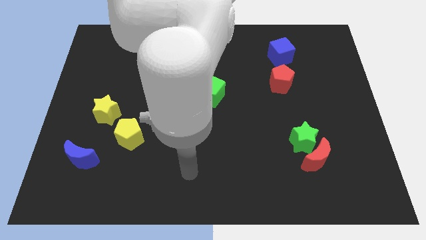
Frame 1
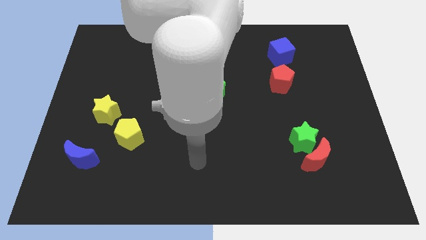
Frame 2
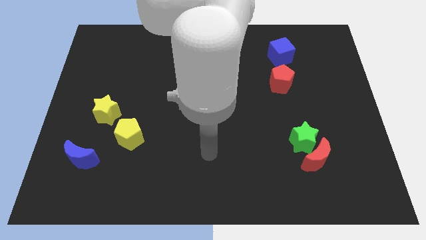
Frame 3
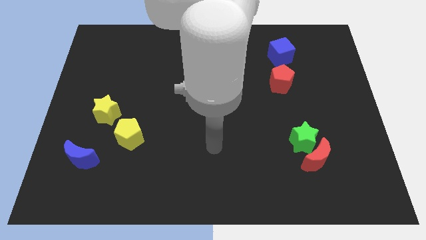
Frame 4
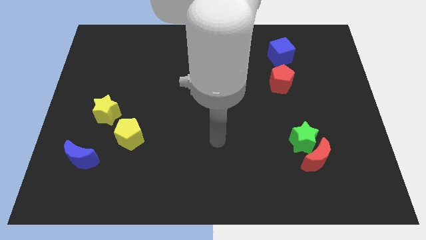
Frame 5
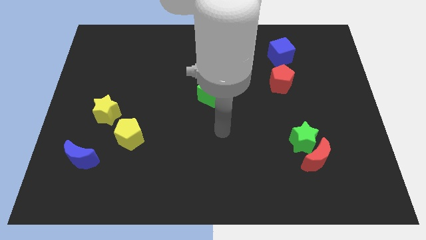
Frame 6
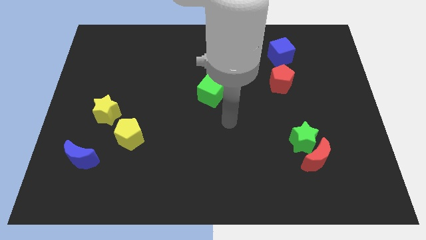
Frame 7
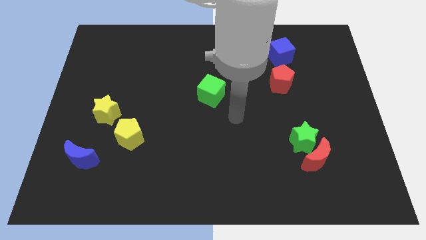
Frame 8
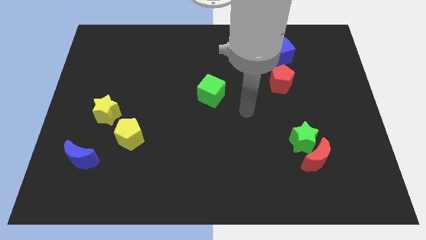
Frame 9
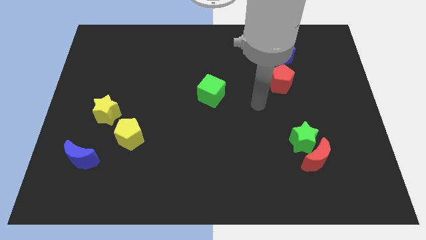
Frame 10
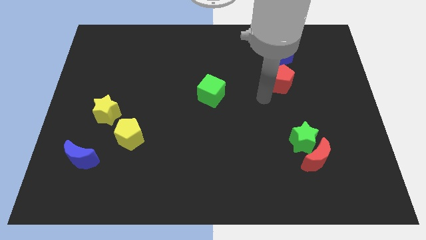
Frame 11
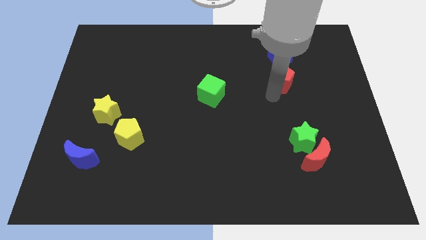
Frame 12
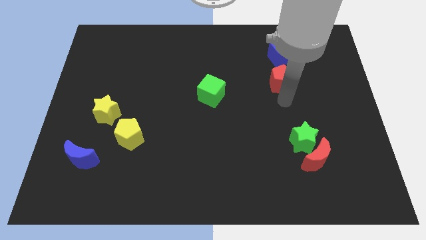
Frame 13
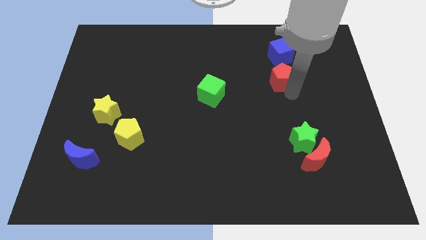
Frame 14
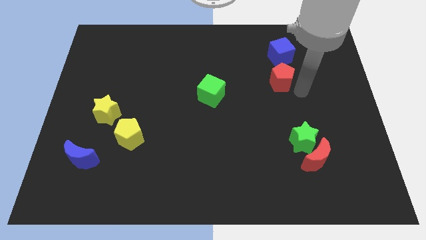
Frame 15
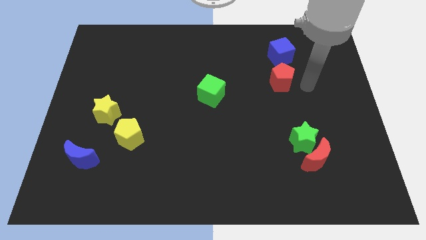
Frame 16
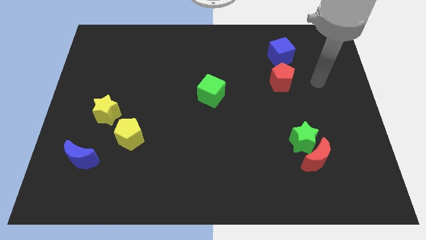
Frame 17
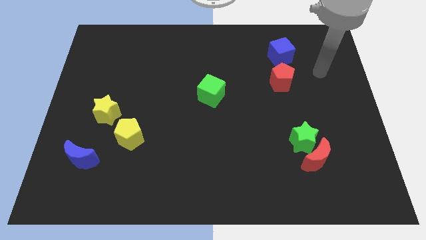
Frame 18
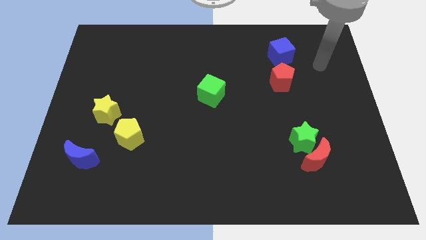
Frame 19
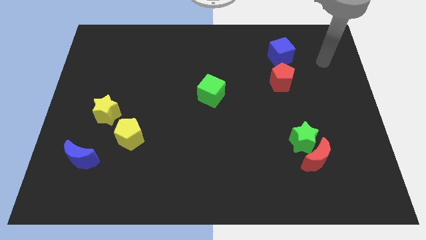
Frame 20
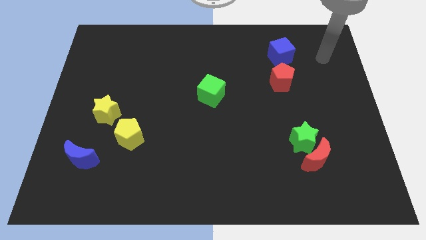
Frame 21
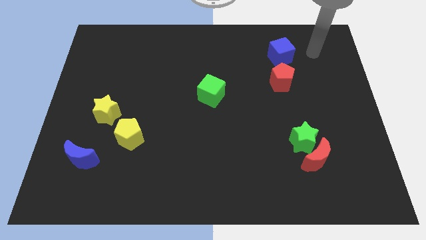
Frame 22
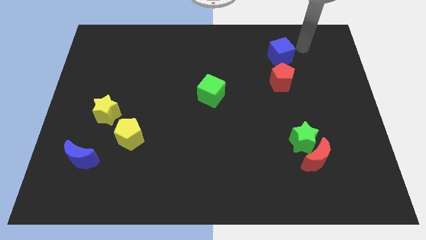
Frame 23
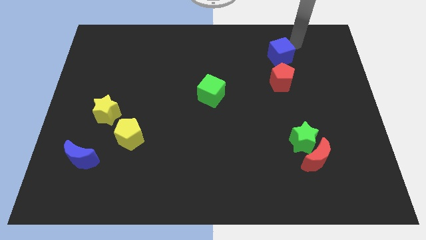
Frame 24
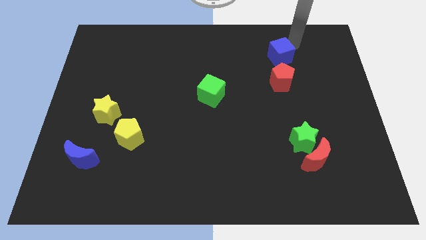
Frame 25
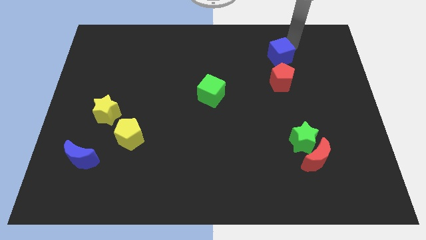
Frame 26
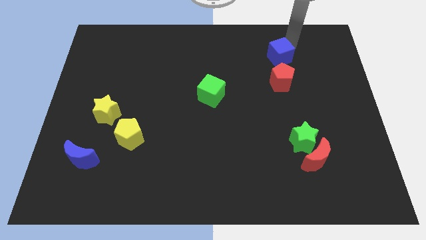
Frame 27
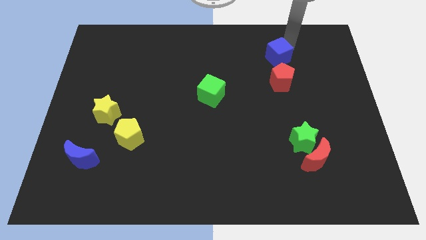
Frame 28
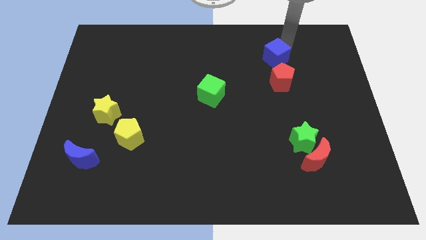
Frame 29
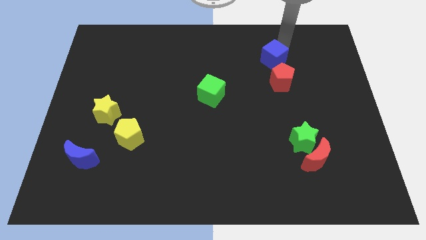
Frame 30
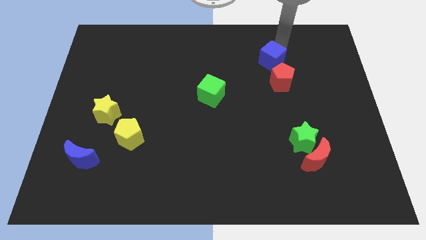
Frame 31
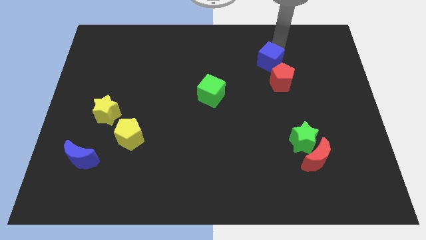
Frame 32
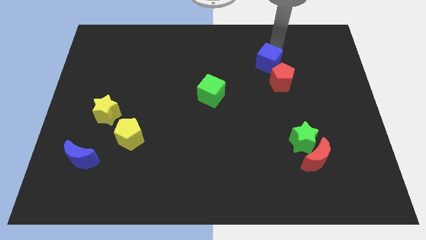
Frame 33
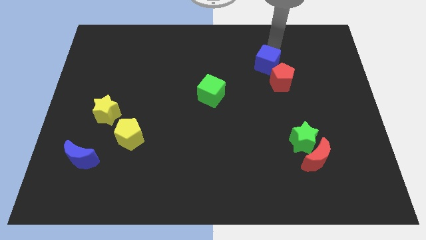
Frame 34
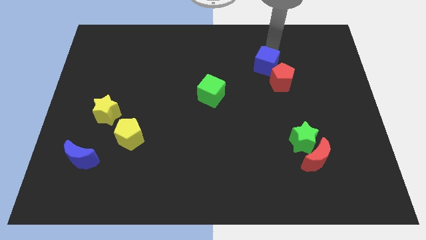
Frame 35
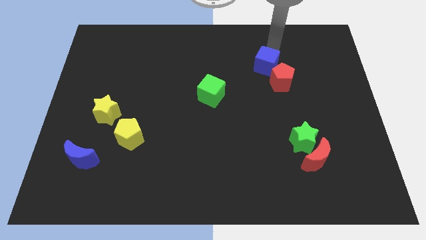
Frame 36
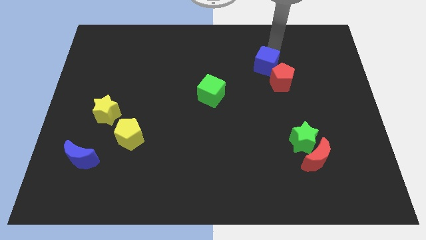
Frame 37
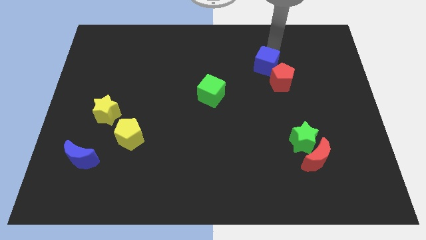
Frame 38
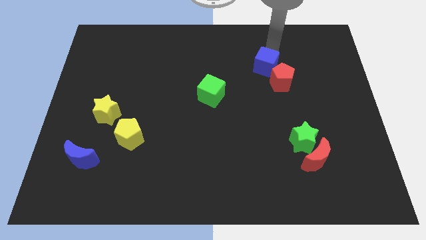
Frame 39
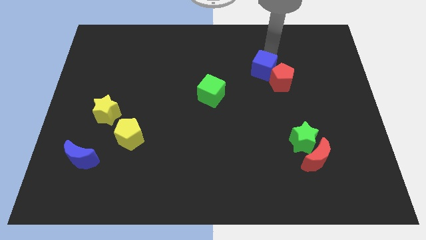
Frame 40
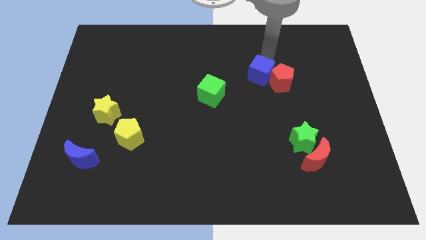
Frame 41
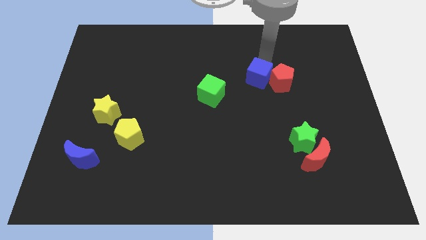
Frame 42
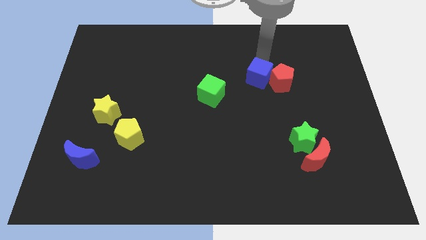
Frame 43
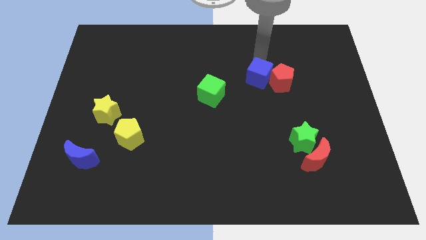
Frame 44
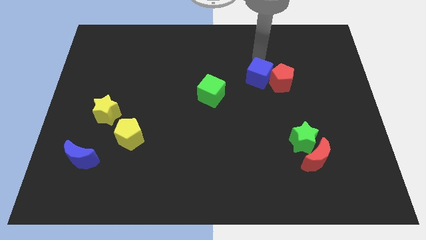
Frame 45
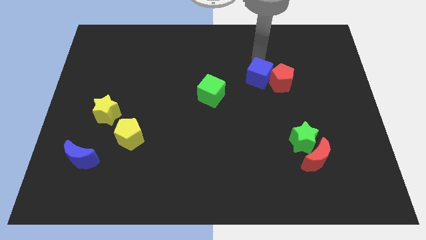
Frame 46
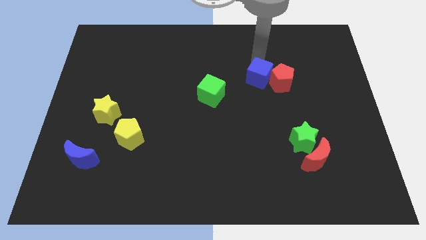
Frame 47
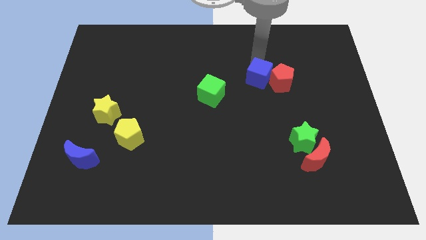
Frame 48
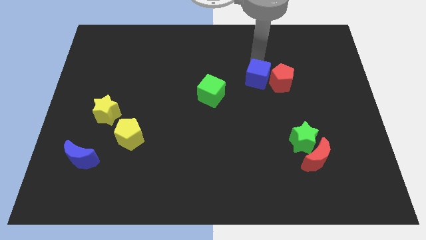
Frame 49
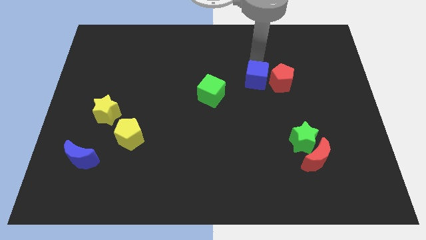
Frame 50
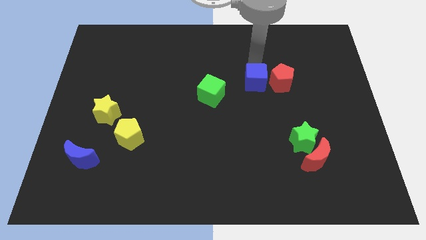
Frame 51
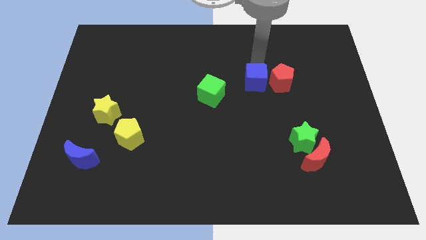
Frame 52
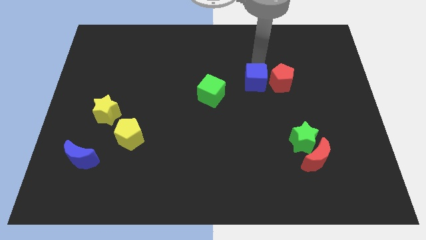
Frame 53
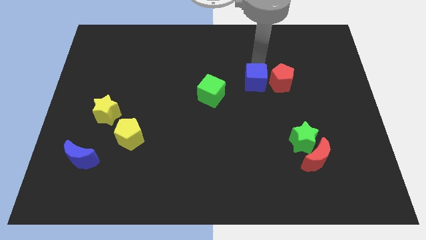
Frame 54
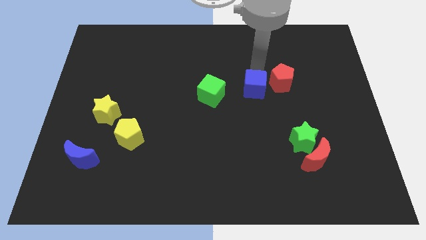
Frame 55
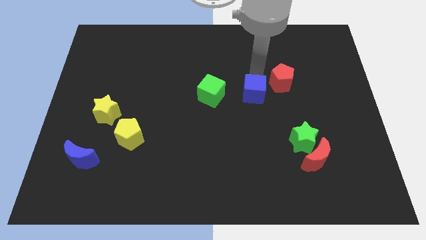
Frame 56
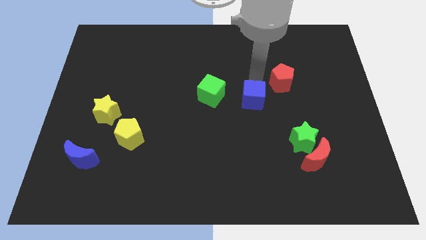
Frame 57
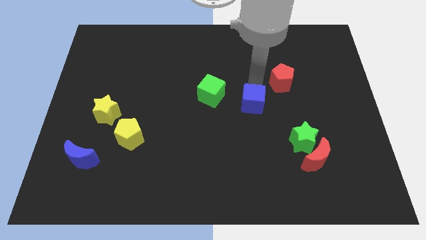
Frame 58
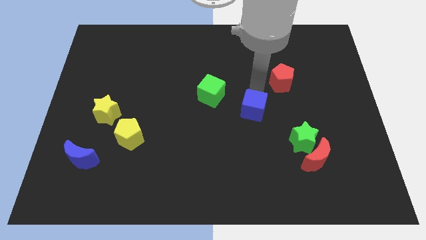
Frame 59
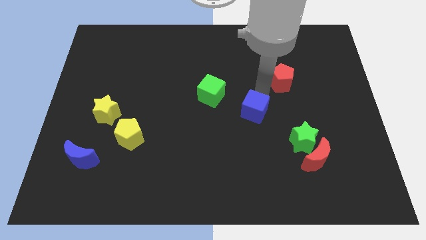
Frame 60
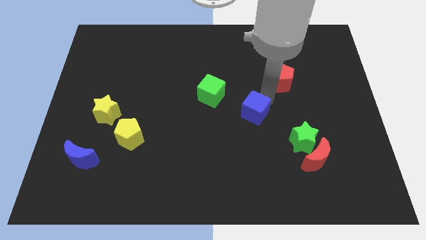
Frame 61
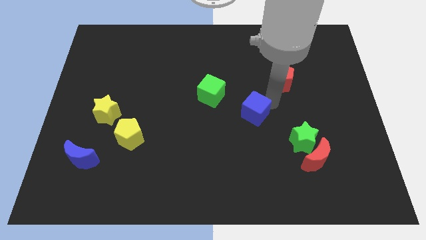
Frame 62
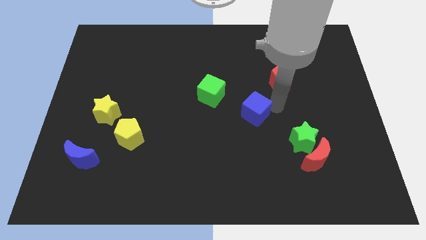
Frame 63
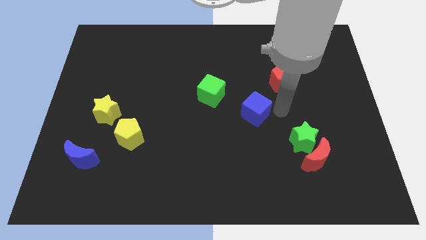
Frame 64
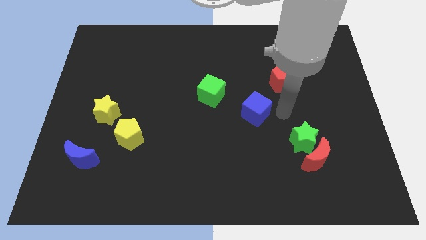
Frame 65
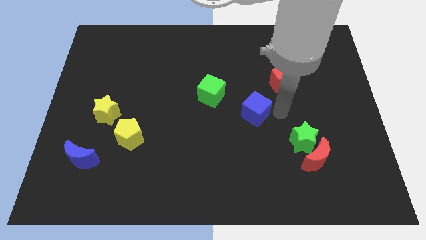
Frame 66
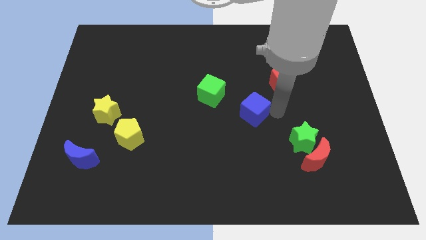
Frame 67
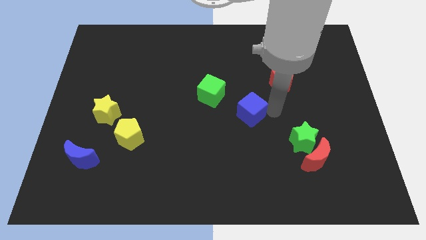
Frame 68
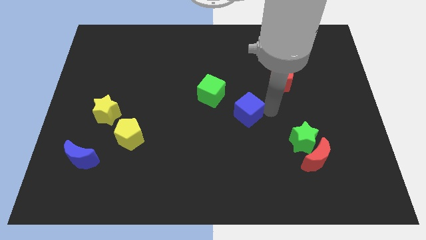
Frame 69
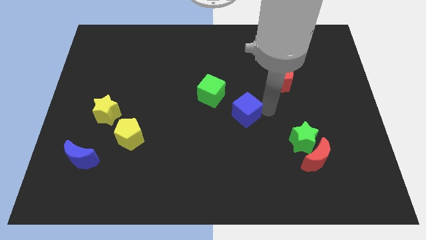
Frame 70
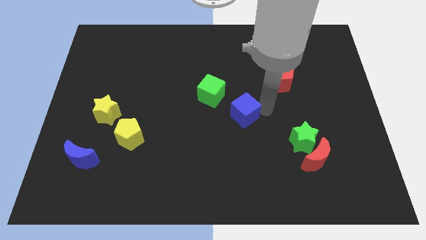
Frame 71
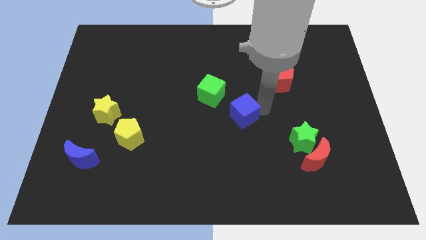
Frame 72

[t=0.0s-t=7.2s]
slide the blue cube down and left

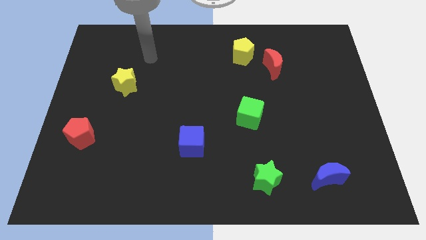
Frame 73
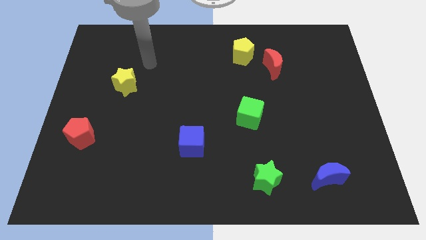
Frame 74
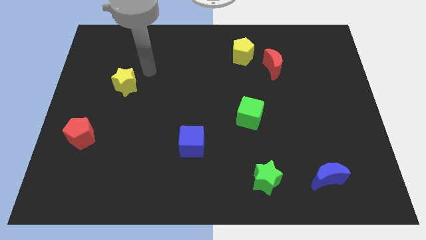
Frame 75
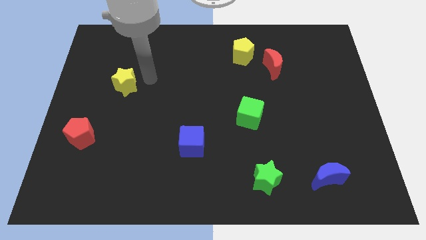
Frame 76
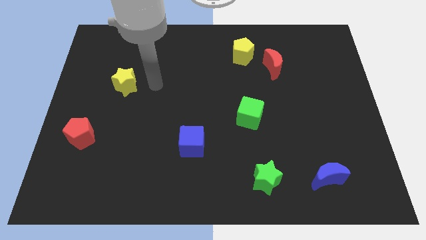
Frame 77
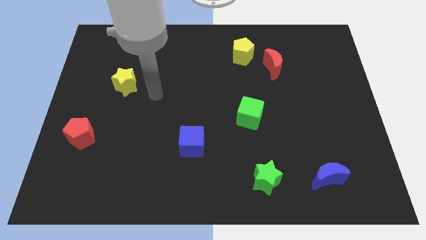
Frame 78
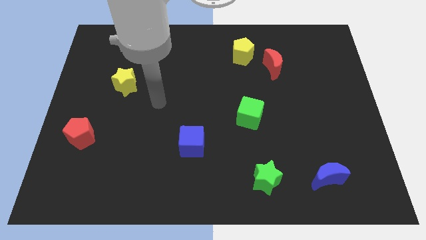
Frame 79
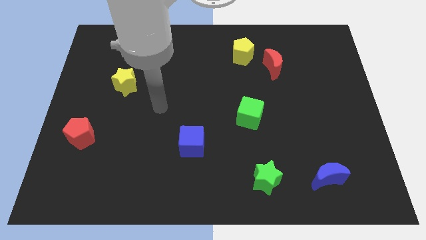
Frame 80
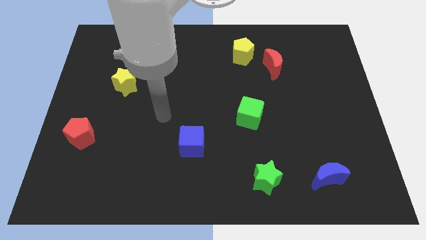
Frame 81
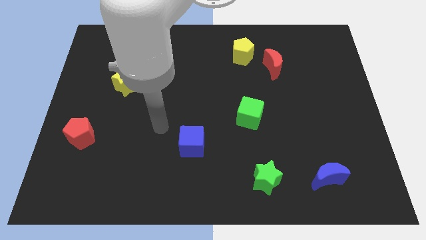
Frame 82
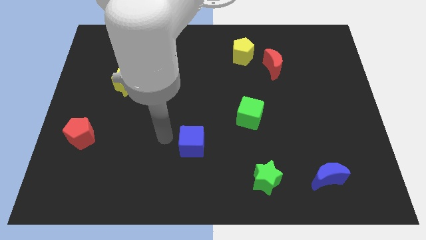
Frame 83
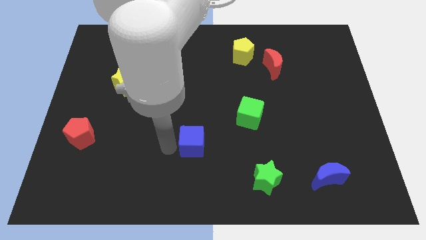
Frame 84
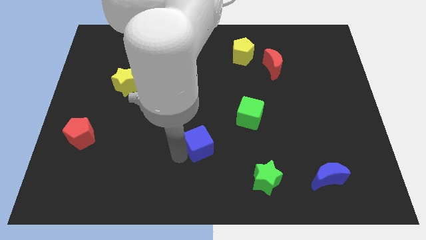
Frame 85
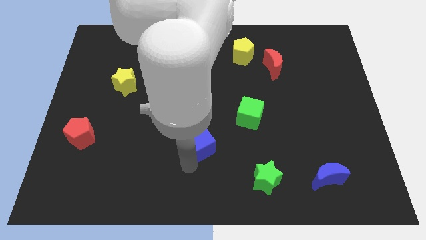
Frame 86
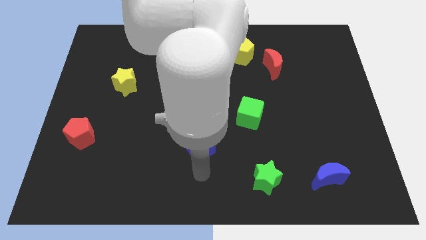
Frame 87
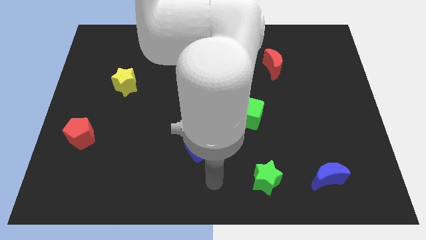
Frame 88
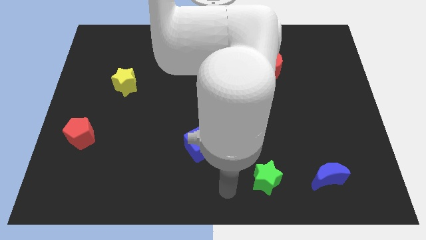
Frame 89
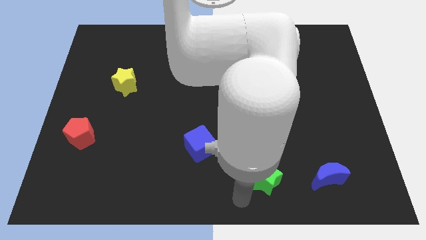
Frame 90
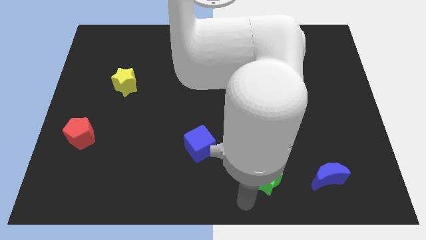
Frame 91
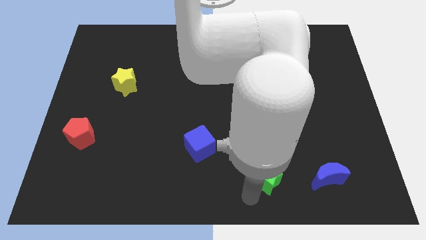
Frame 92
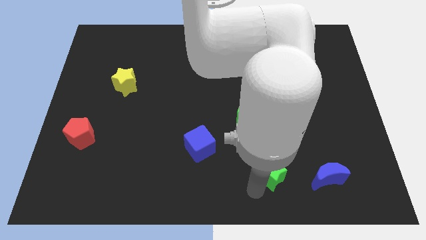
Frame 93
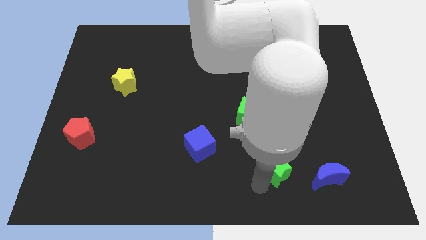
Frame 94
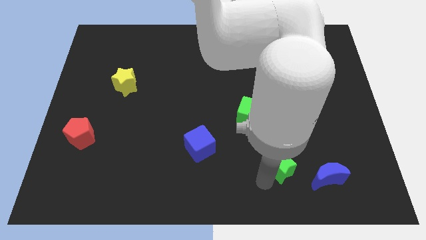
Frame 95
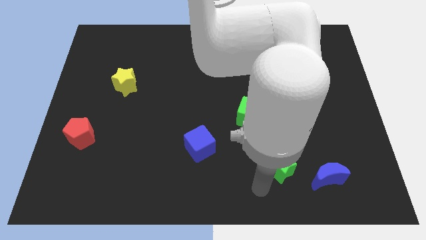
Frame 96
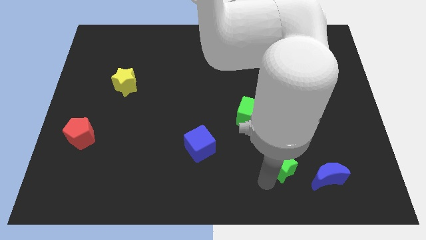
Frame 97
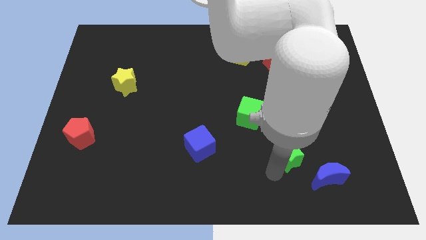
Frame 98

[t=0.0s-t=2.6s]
slightly move the green star upwards and then to the right
